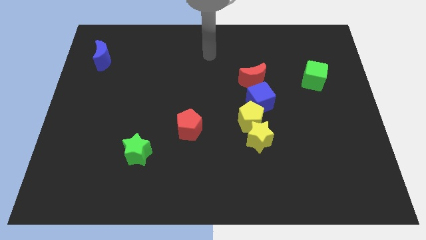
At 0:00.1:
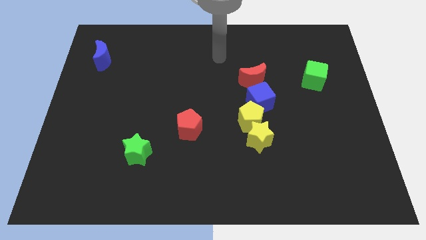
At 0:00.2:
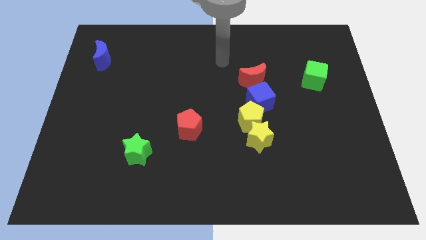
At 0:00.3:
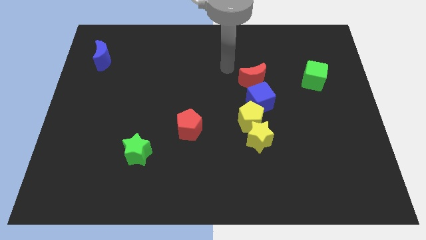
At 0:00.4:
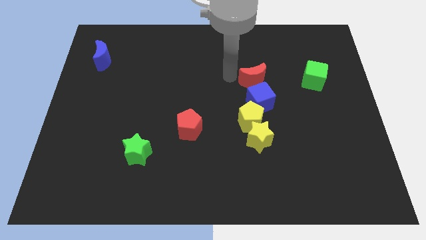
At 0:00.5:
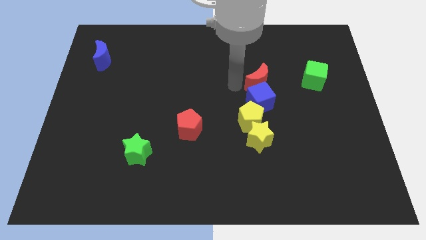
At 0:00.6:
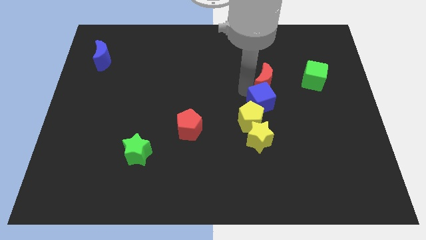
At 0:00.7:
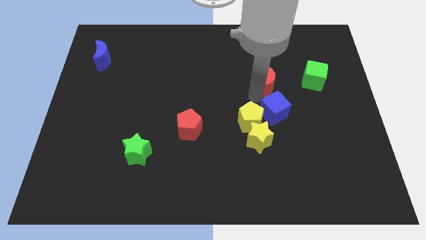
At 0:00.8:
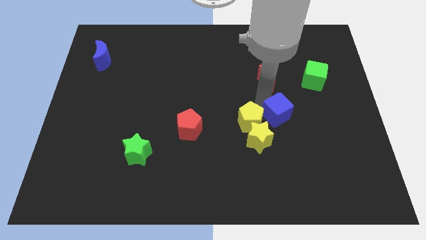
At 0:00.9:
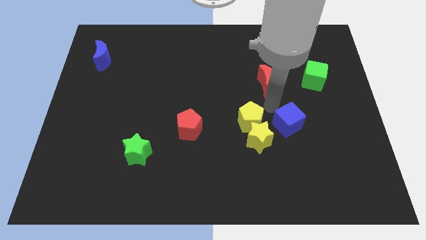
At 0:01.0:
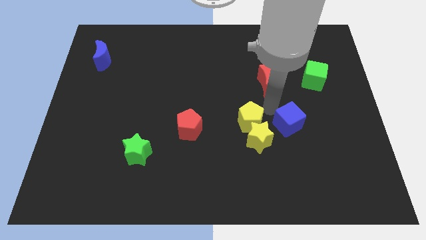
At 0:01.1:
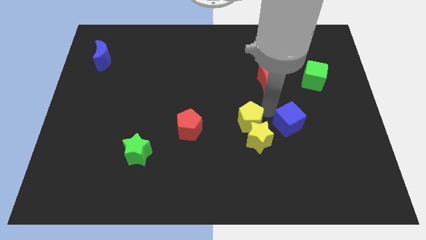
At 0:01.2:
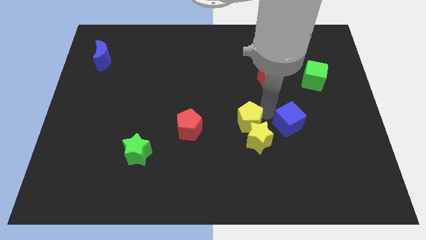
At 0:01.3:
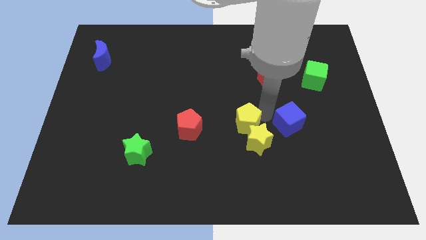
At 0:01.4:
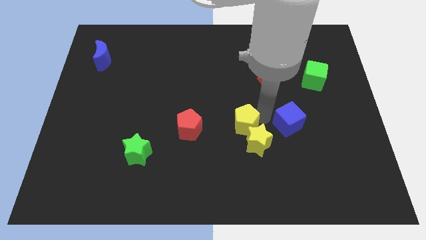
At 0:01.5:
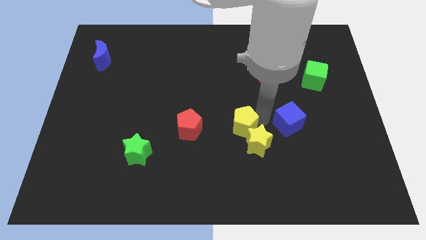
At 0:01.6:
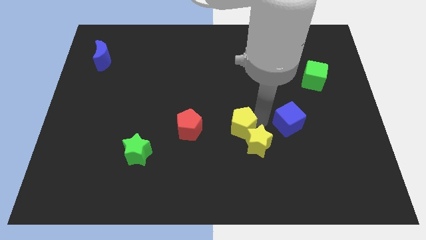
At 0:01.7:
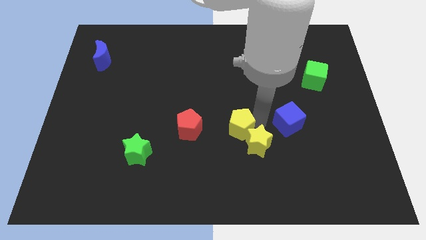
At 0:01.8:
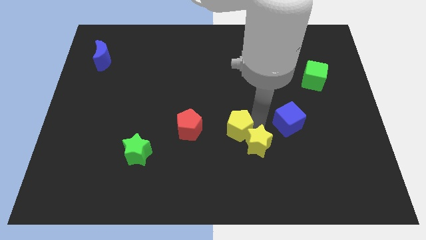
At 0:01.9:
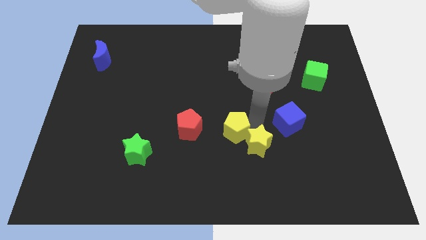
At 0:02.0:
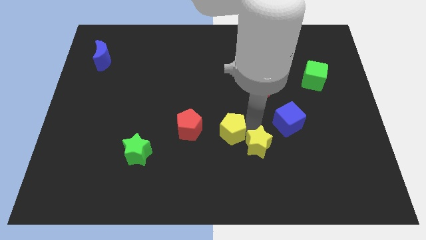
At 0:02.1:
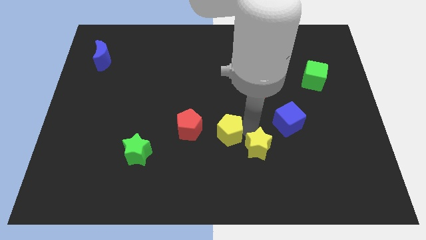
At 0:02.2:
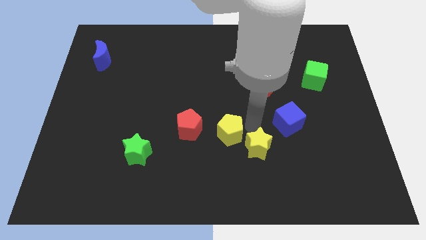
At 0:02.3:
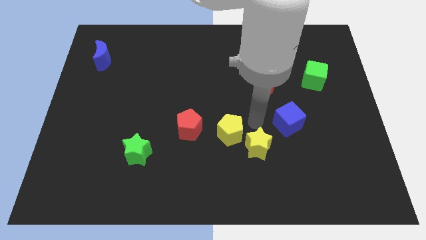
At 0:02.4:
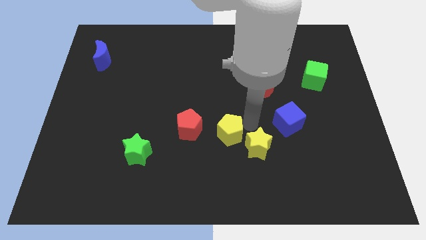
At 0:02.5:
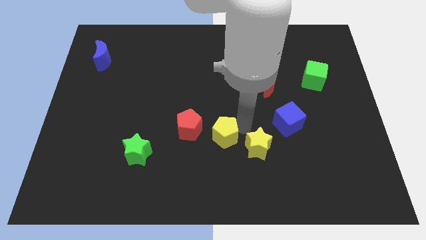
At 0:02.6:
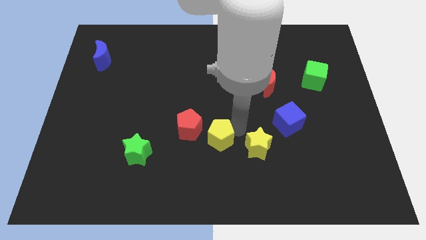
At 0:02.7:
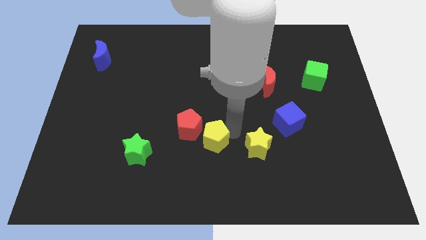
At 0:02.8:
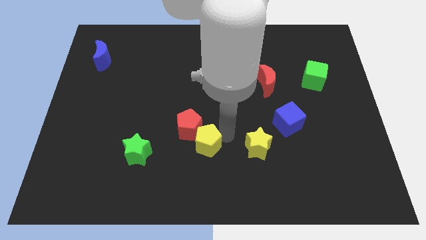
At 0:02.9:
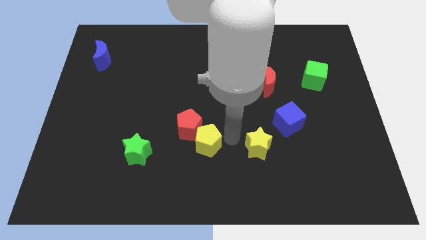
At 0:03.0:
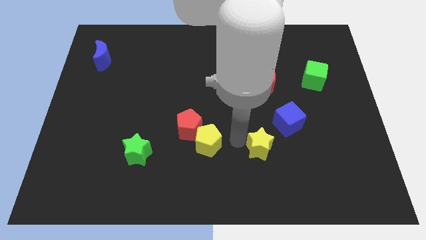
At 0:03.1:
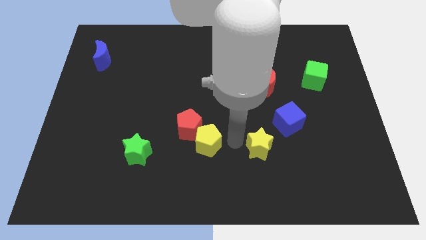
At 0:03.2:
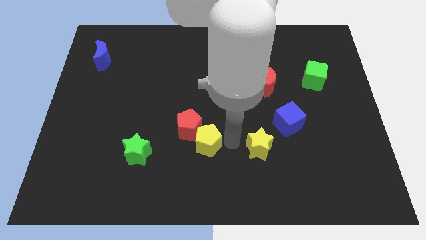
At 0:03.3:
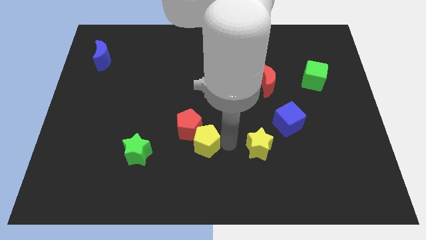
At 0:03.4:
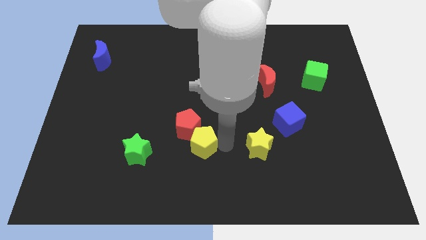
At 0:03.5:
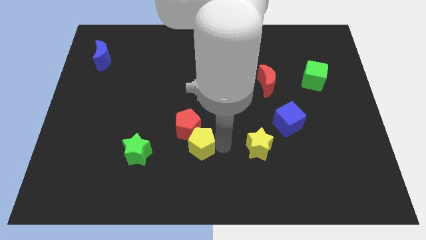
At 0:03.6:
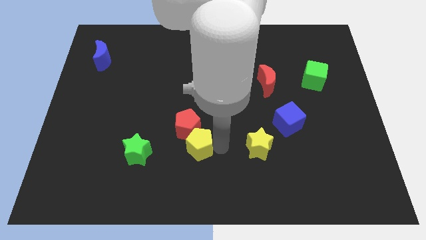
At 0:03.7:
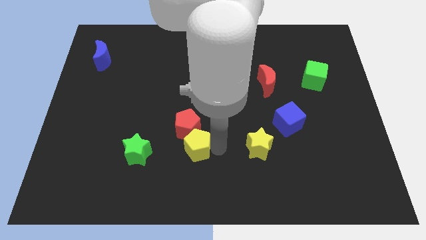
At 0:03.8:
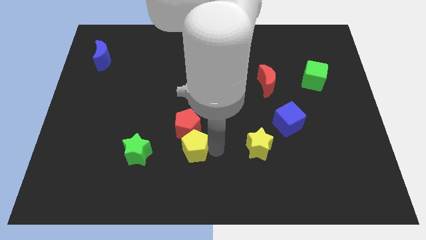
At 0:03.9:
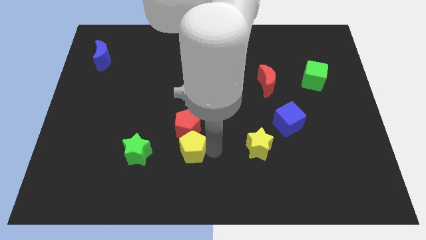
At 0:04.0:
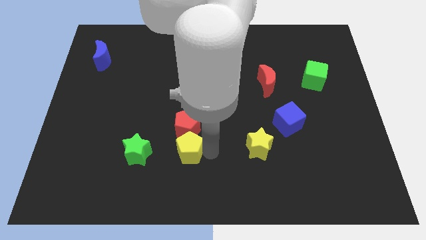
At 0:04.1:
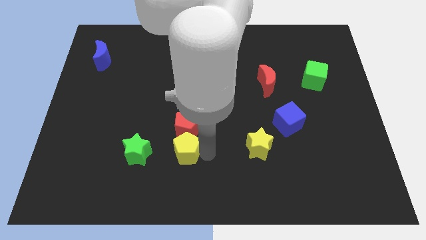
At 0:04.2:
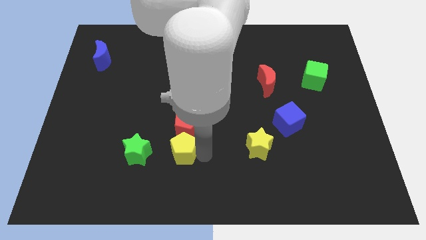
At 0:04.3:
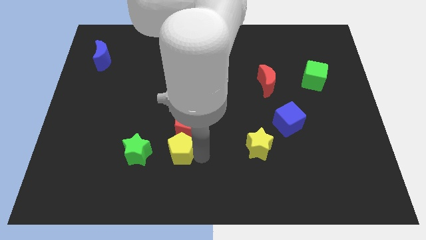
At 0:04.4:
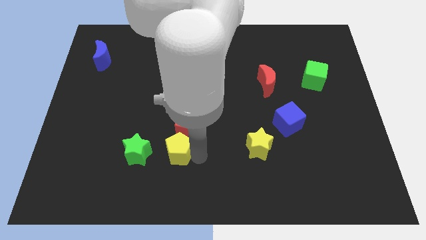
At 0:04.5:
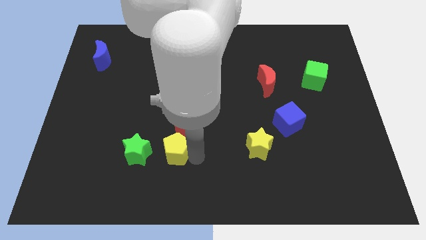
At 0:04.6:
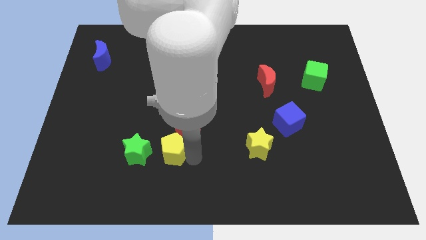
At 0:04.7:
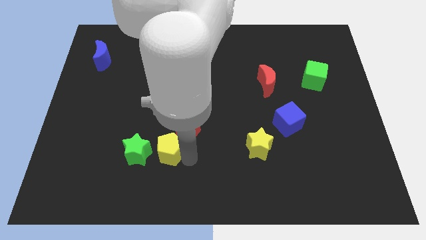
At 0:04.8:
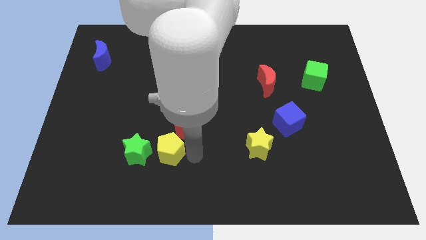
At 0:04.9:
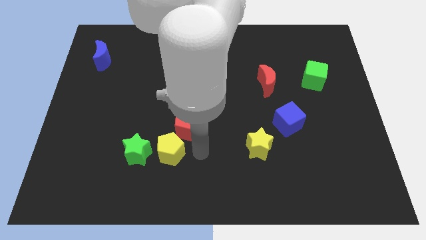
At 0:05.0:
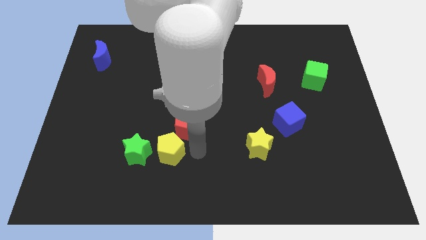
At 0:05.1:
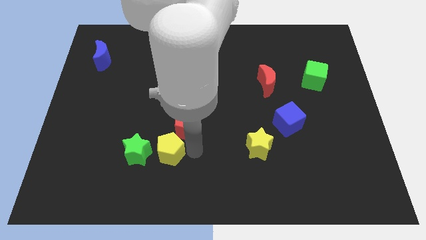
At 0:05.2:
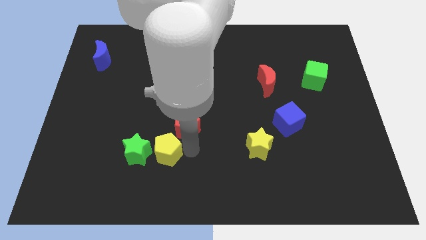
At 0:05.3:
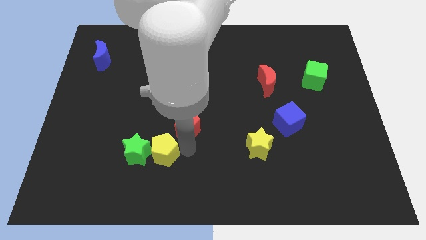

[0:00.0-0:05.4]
slide the yellow pentagon next to the green star

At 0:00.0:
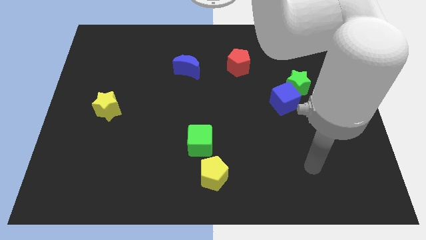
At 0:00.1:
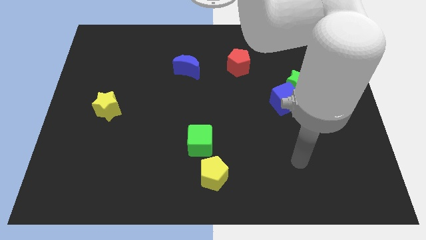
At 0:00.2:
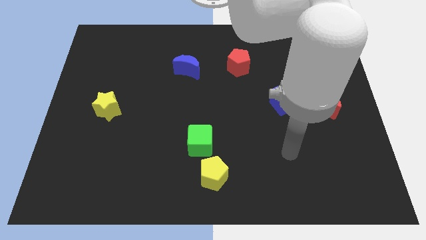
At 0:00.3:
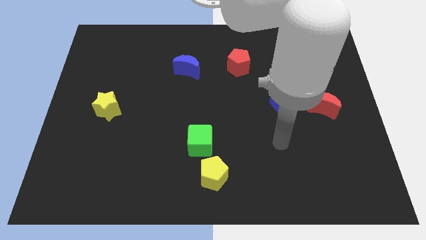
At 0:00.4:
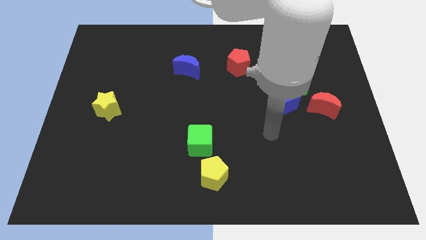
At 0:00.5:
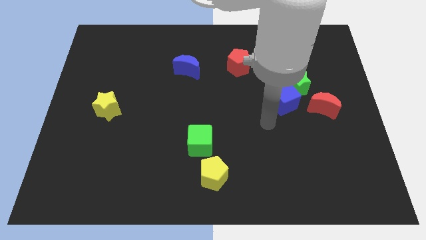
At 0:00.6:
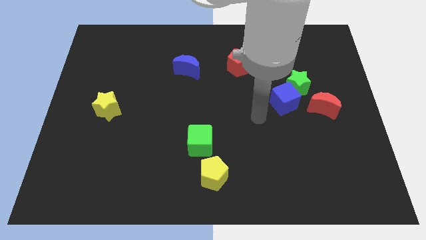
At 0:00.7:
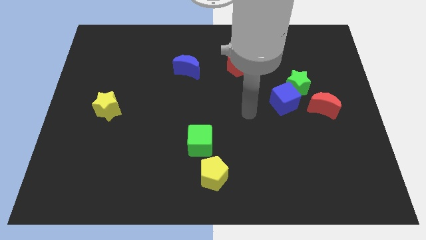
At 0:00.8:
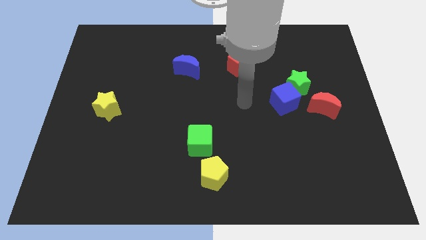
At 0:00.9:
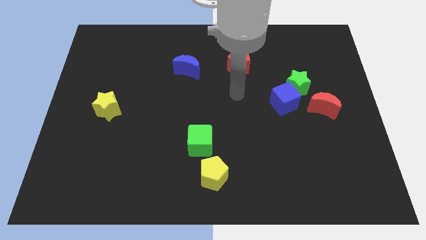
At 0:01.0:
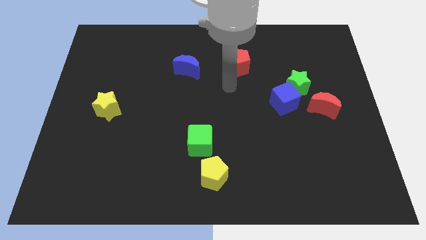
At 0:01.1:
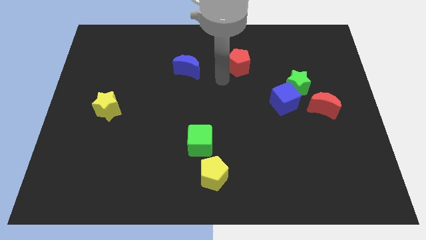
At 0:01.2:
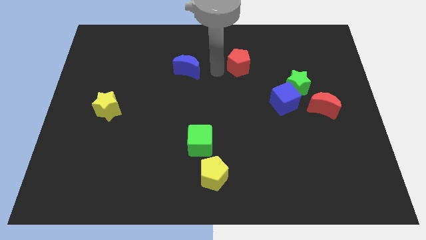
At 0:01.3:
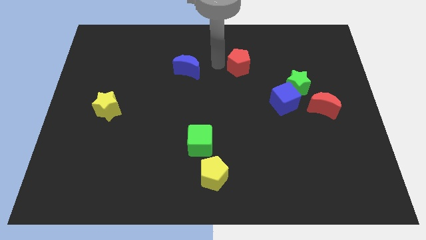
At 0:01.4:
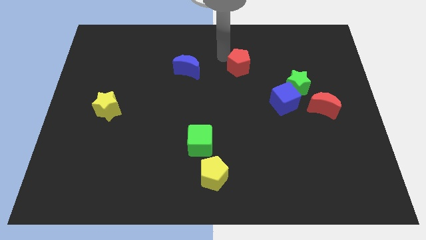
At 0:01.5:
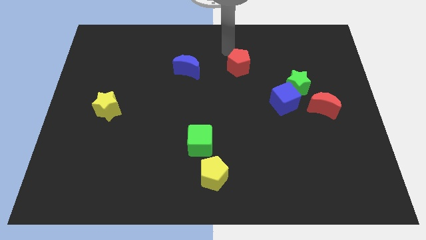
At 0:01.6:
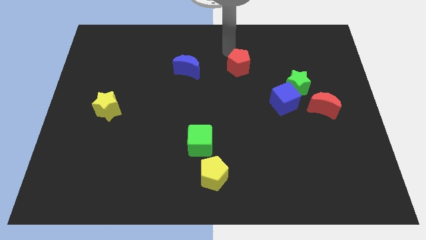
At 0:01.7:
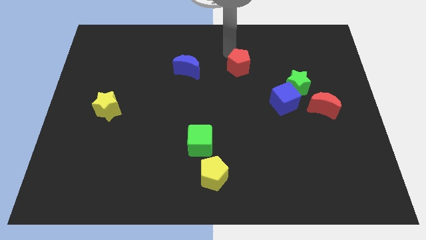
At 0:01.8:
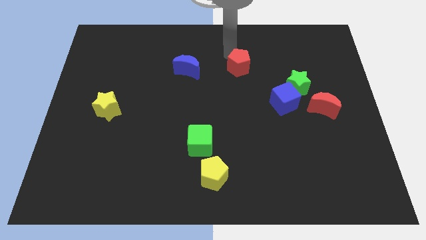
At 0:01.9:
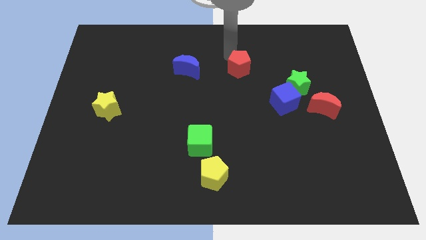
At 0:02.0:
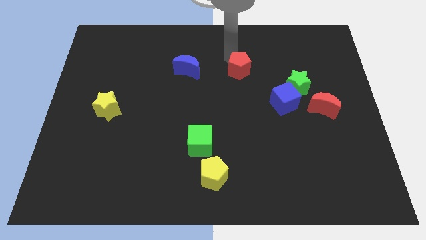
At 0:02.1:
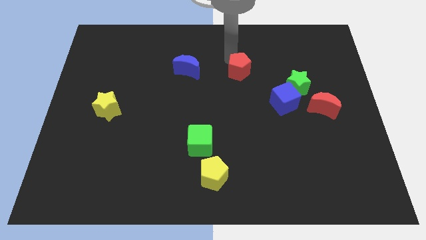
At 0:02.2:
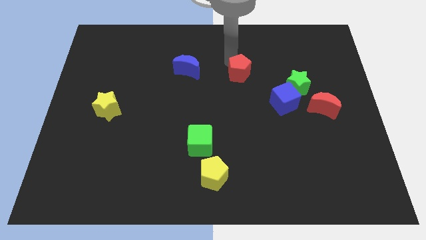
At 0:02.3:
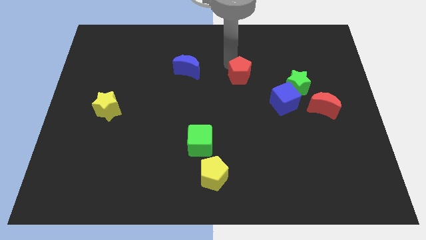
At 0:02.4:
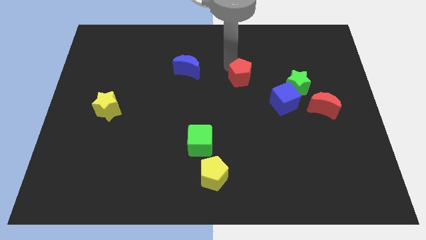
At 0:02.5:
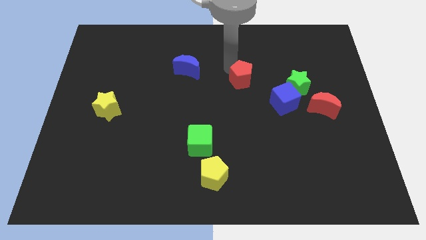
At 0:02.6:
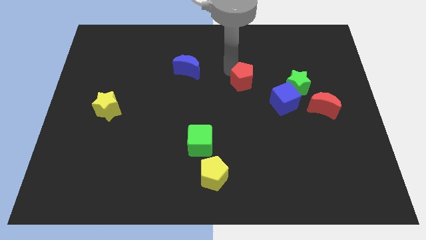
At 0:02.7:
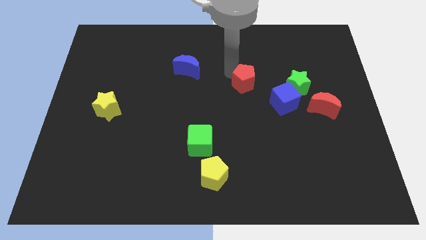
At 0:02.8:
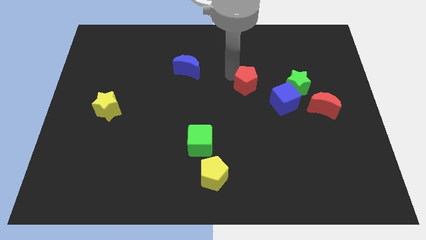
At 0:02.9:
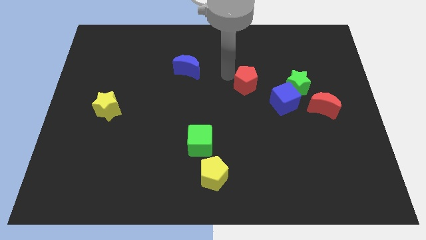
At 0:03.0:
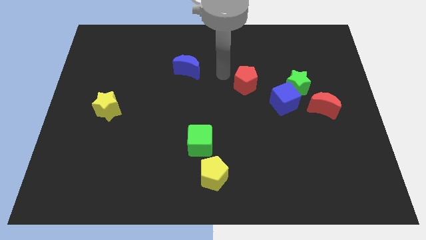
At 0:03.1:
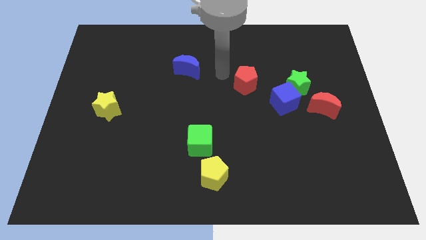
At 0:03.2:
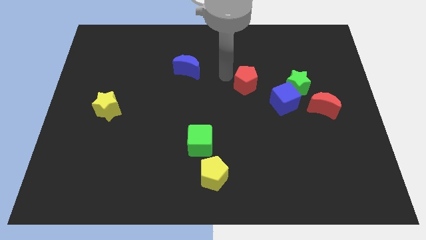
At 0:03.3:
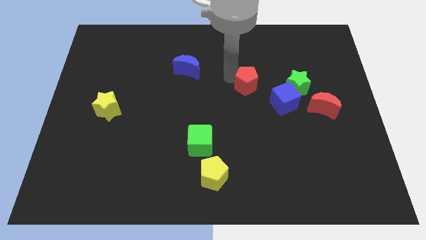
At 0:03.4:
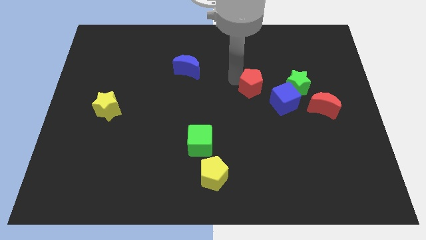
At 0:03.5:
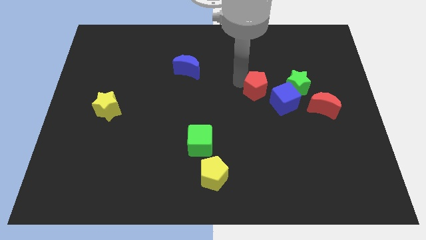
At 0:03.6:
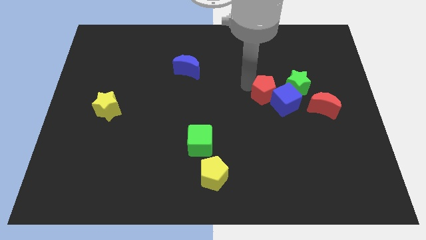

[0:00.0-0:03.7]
slide the red pentagon next to the blue cube

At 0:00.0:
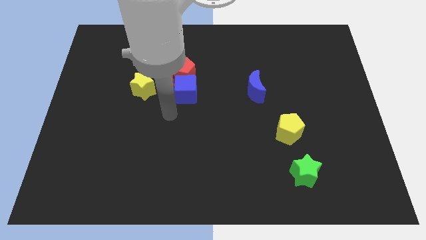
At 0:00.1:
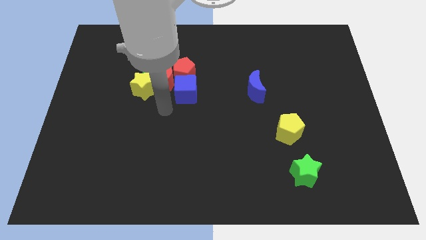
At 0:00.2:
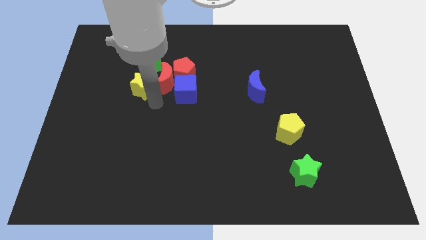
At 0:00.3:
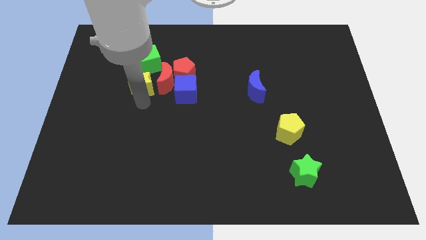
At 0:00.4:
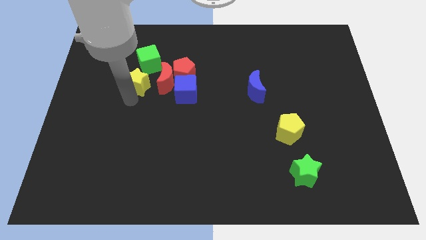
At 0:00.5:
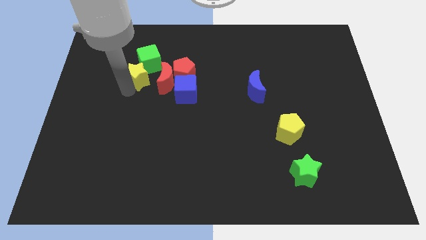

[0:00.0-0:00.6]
put the green cube towards the yellow star
